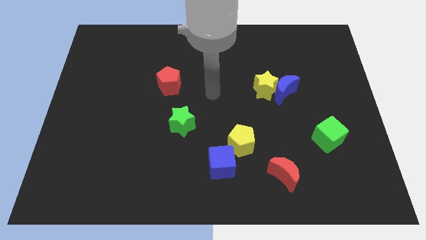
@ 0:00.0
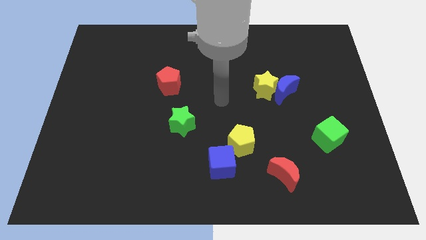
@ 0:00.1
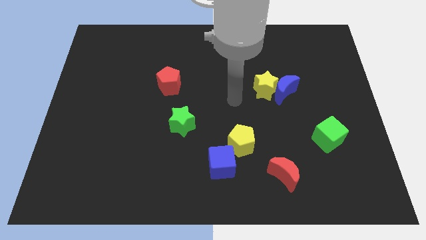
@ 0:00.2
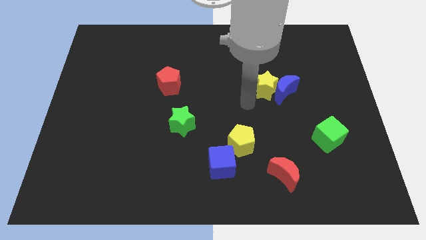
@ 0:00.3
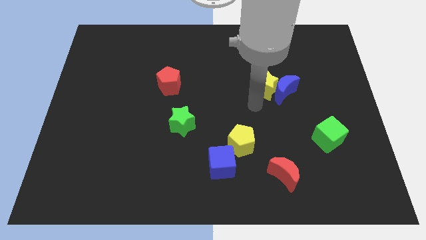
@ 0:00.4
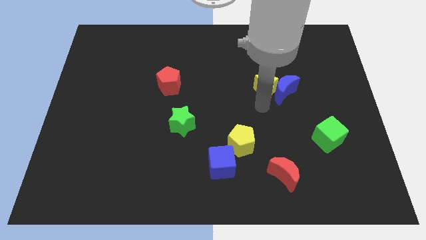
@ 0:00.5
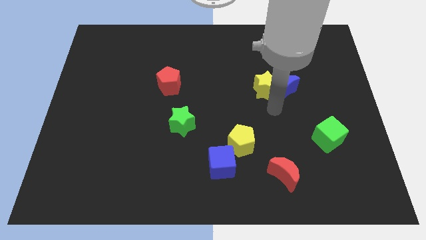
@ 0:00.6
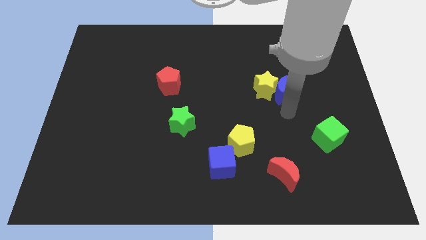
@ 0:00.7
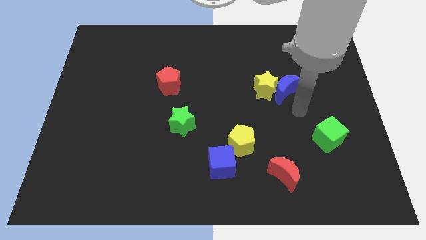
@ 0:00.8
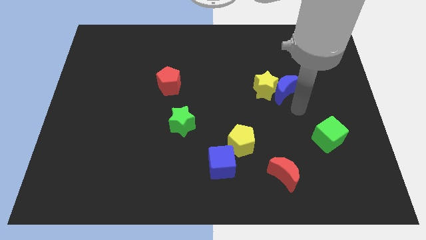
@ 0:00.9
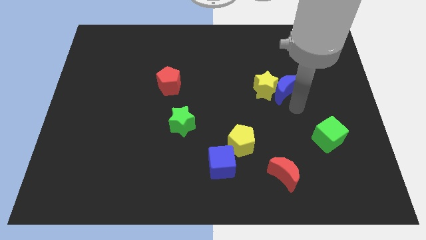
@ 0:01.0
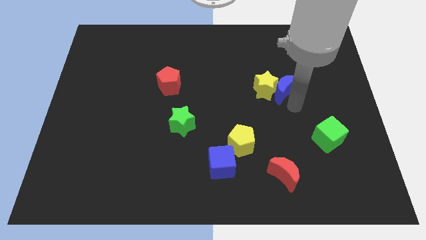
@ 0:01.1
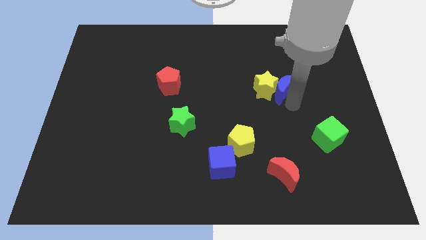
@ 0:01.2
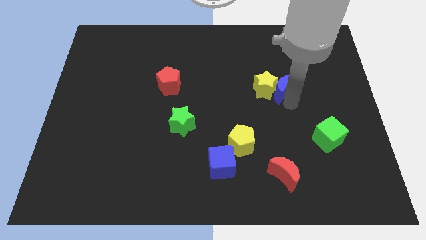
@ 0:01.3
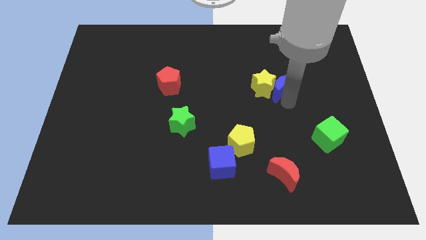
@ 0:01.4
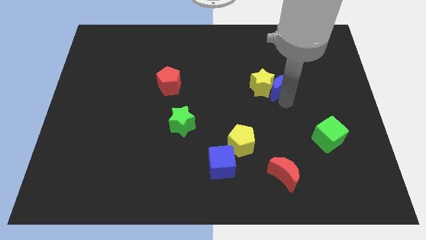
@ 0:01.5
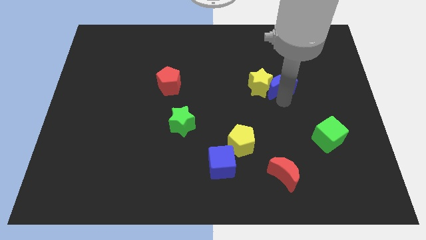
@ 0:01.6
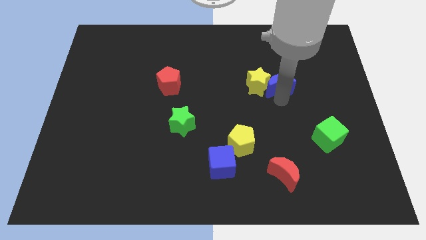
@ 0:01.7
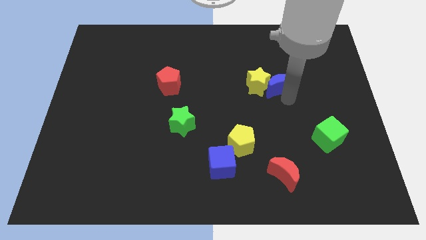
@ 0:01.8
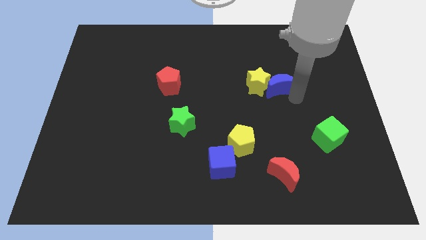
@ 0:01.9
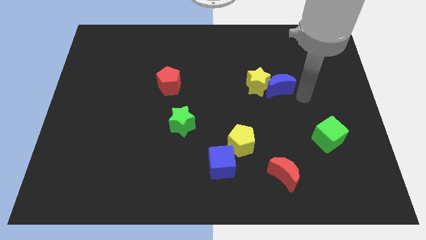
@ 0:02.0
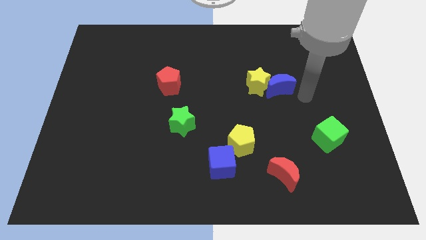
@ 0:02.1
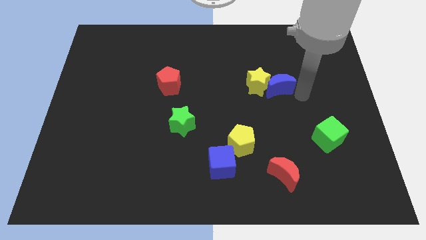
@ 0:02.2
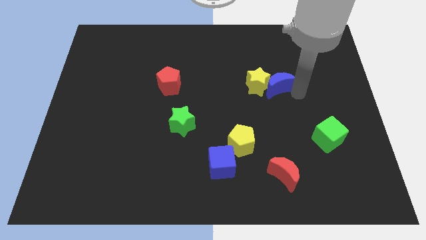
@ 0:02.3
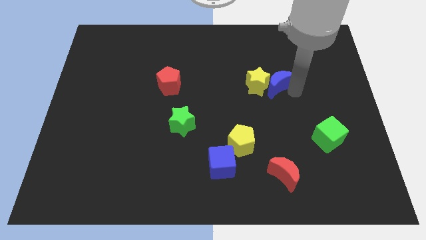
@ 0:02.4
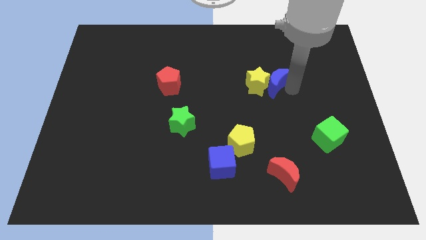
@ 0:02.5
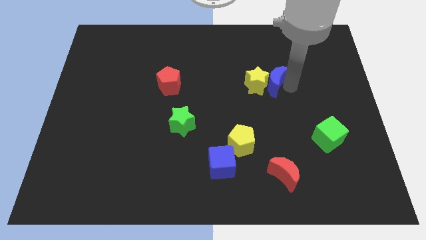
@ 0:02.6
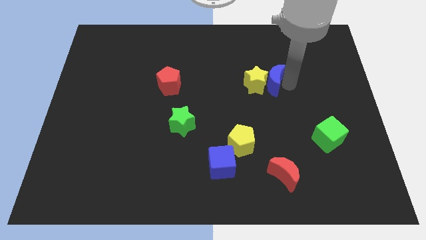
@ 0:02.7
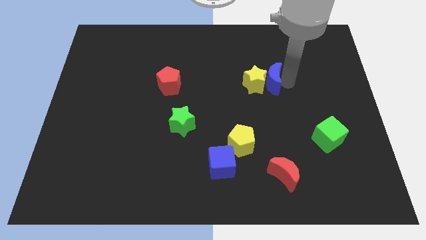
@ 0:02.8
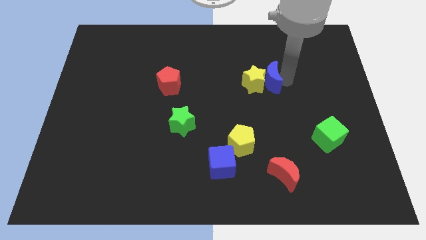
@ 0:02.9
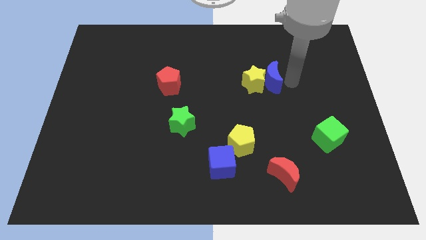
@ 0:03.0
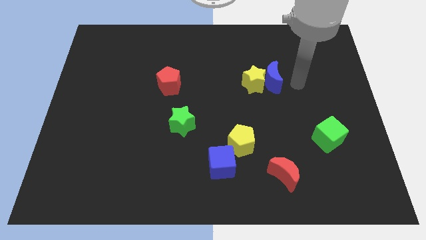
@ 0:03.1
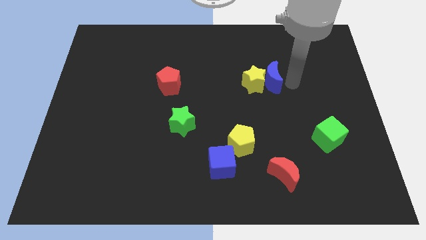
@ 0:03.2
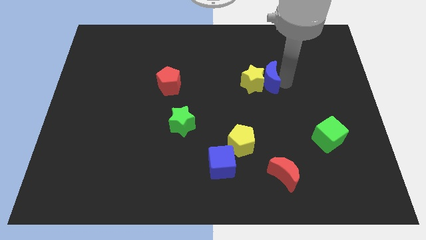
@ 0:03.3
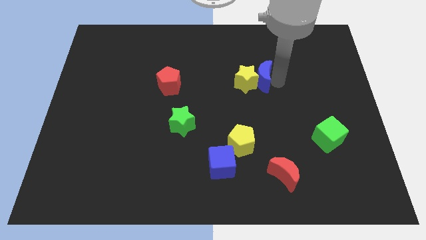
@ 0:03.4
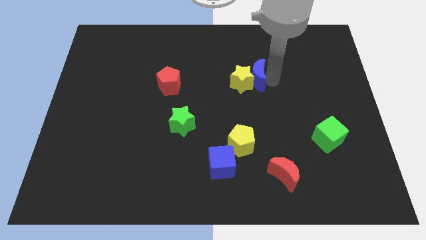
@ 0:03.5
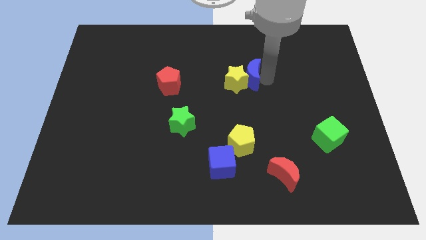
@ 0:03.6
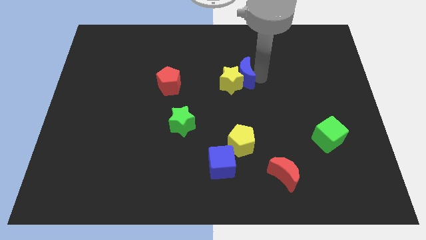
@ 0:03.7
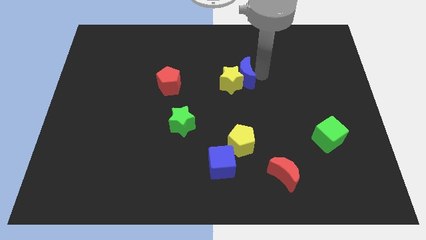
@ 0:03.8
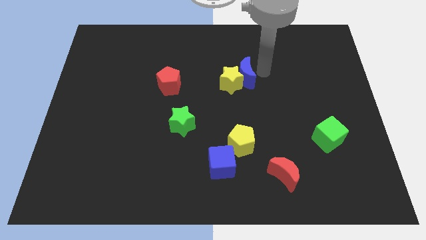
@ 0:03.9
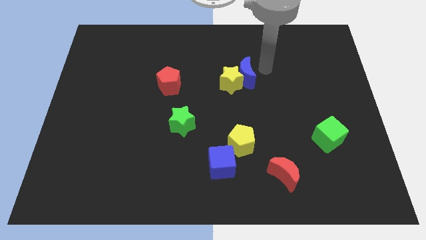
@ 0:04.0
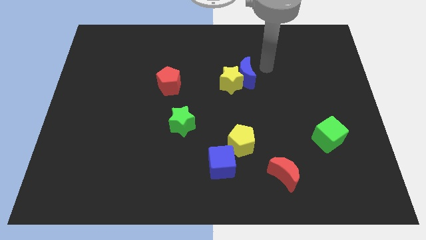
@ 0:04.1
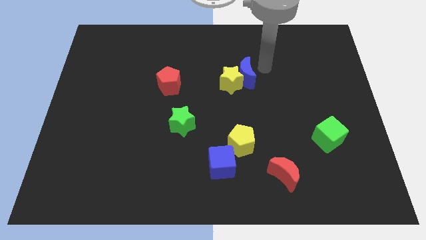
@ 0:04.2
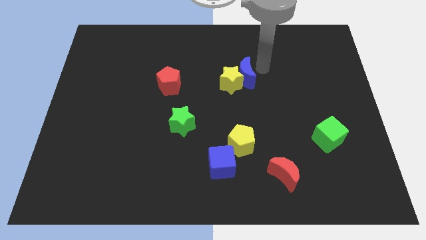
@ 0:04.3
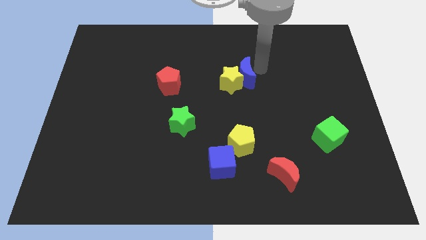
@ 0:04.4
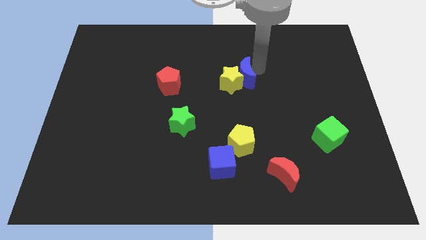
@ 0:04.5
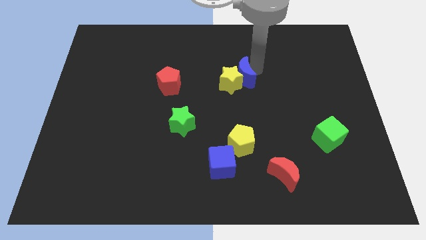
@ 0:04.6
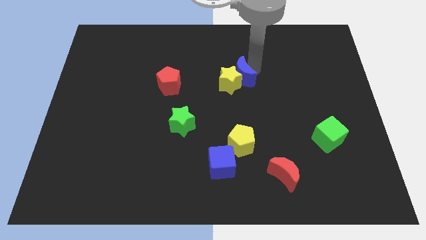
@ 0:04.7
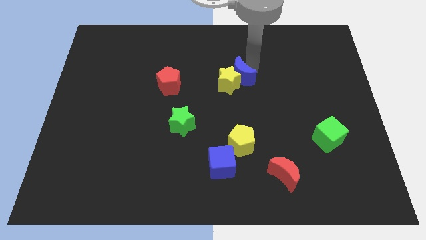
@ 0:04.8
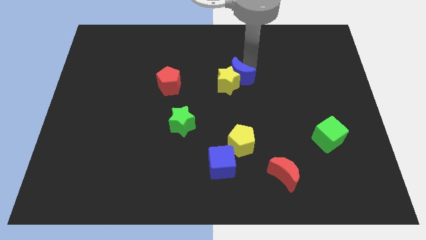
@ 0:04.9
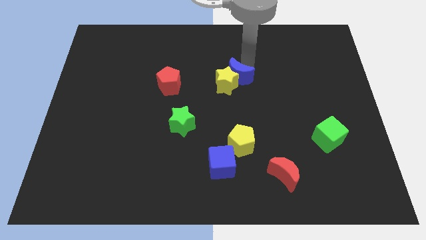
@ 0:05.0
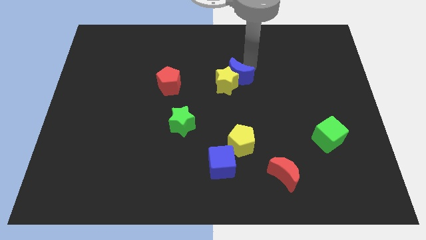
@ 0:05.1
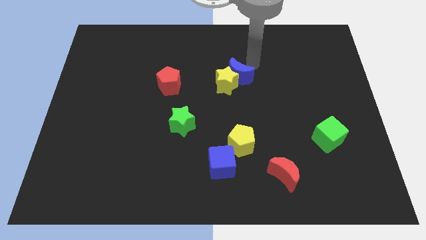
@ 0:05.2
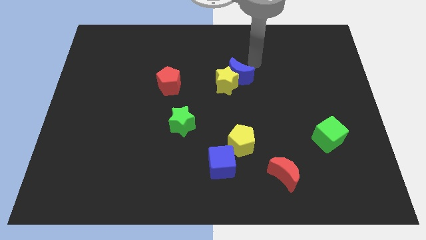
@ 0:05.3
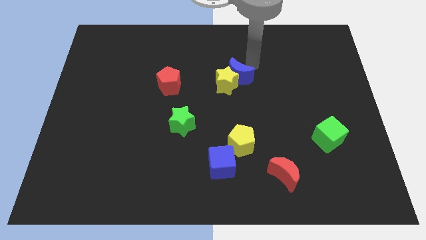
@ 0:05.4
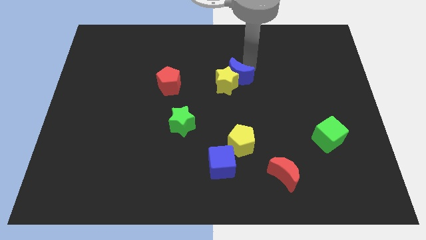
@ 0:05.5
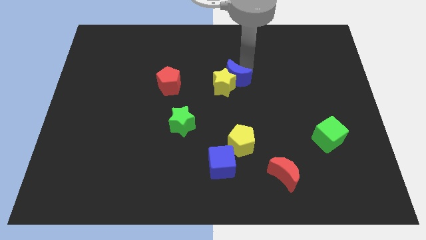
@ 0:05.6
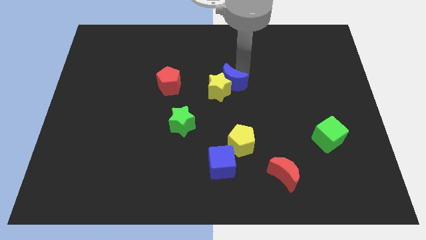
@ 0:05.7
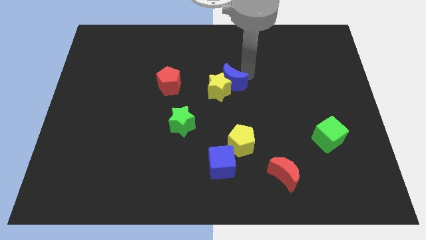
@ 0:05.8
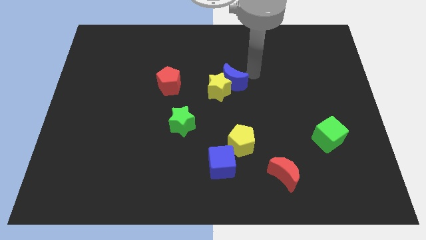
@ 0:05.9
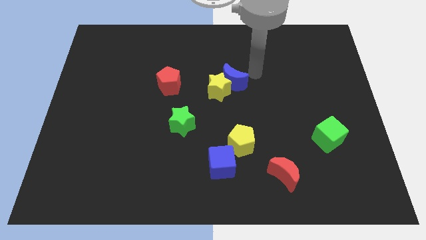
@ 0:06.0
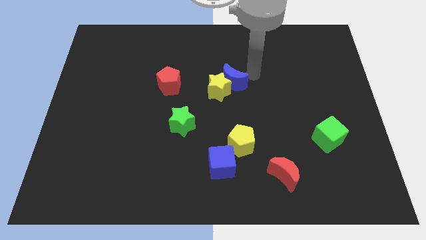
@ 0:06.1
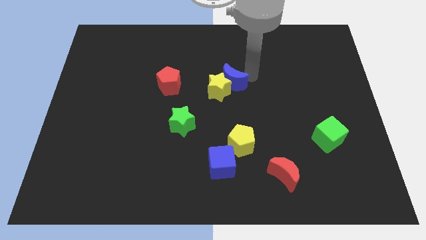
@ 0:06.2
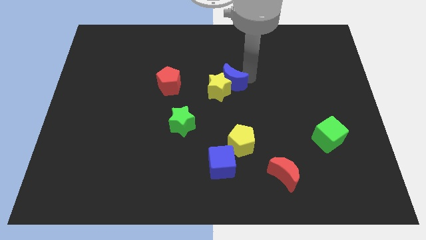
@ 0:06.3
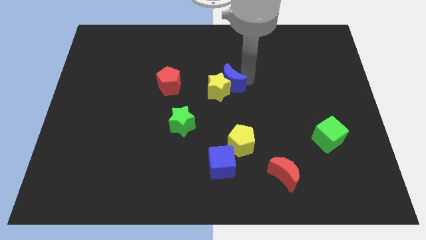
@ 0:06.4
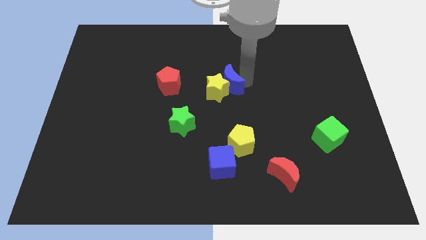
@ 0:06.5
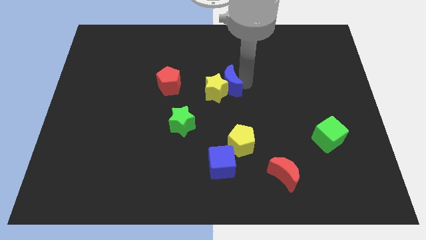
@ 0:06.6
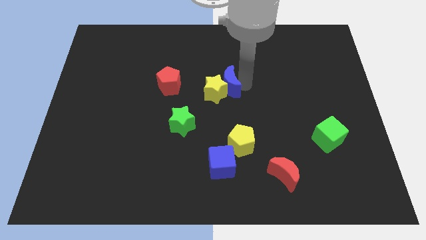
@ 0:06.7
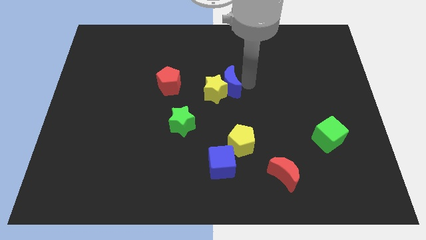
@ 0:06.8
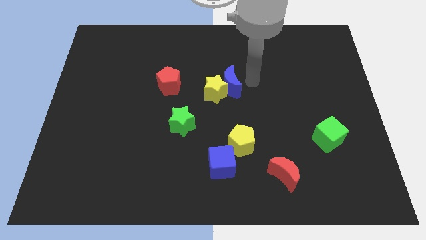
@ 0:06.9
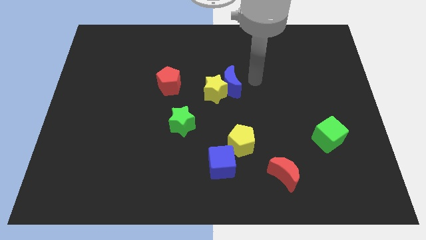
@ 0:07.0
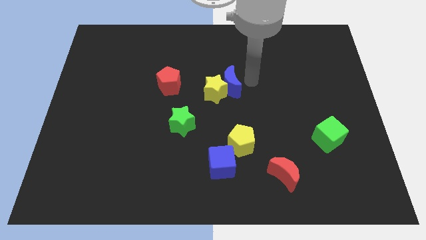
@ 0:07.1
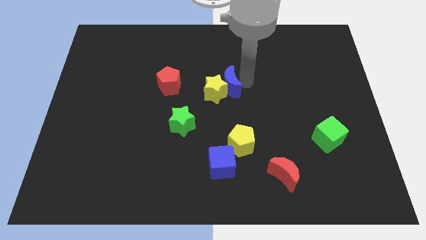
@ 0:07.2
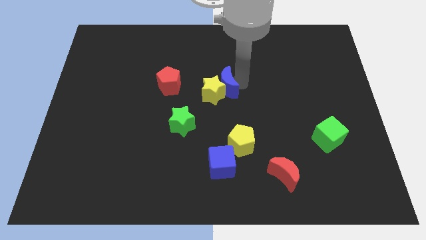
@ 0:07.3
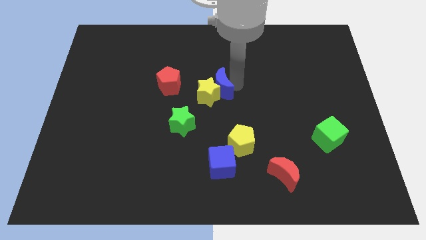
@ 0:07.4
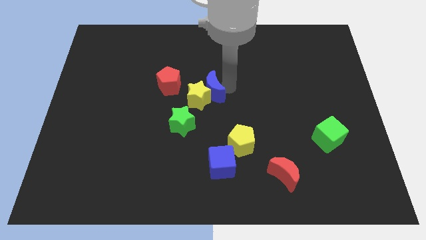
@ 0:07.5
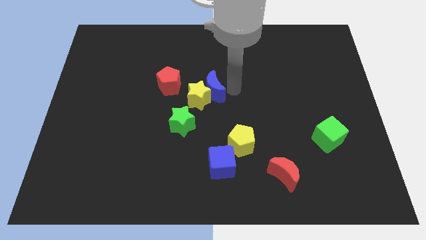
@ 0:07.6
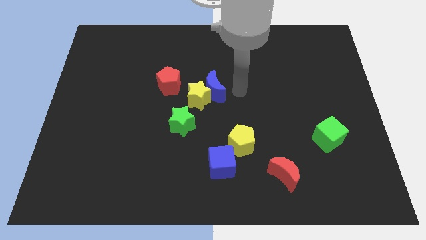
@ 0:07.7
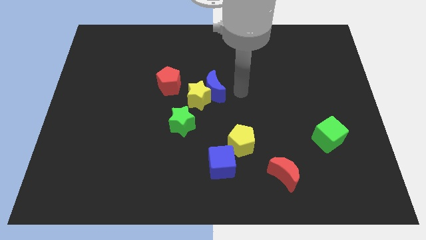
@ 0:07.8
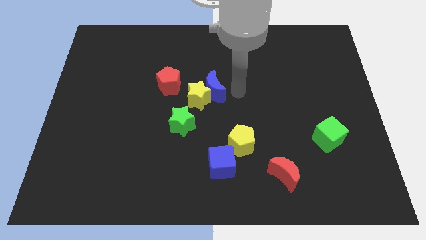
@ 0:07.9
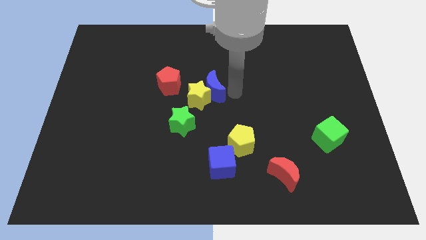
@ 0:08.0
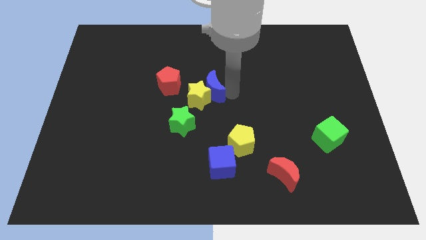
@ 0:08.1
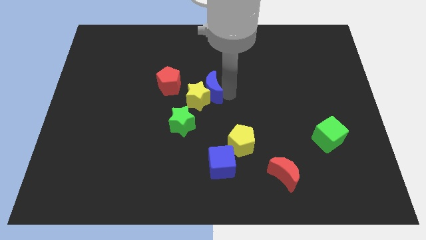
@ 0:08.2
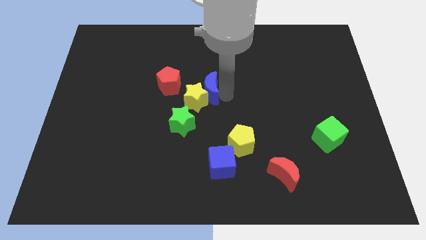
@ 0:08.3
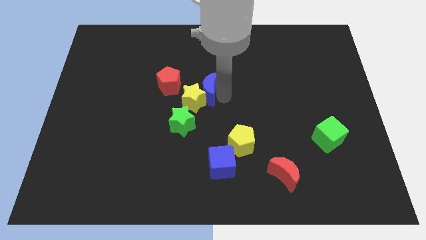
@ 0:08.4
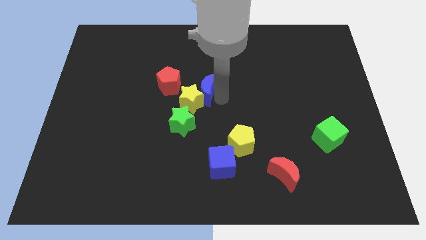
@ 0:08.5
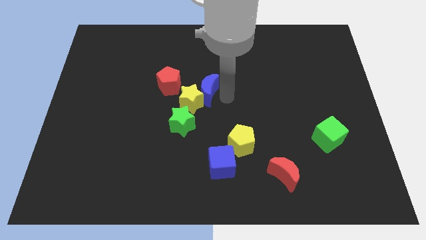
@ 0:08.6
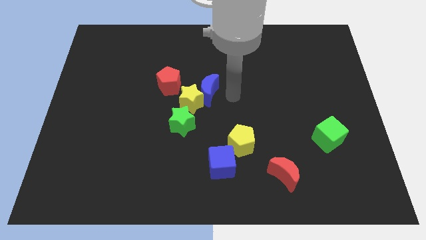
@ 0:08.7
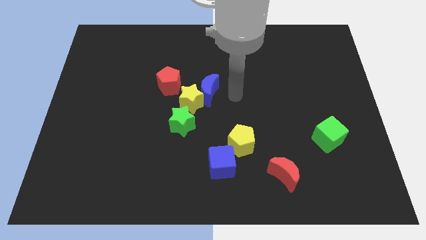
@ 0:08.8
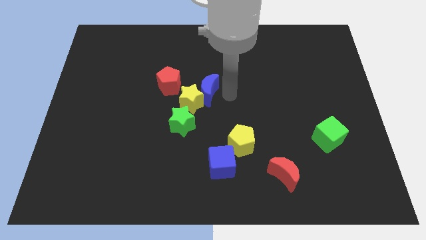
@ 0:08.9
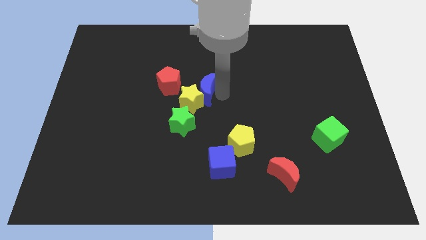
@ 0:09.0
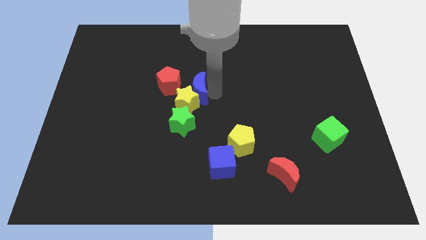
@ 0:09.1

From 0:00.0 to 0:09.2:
slide the blue moon to the top of the green star
